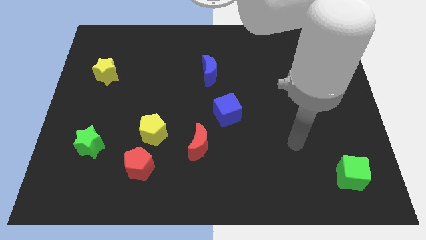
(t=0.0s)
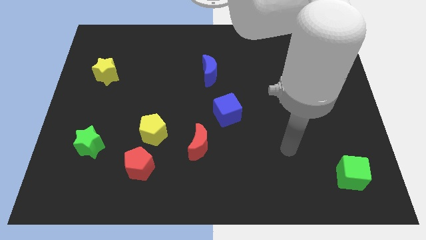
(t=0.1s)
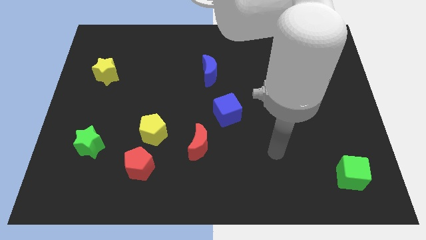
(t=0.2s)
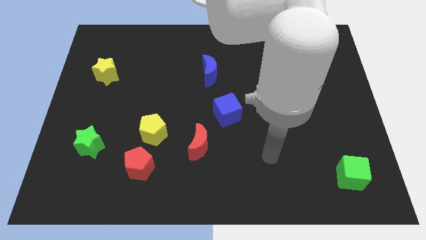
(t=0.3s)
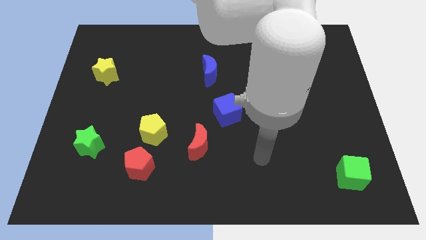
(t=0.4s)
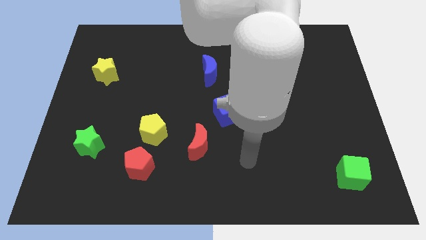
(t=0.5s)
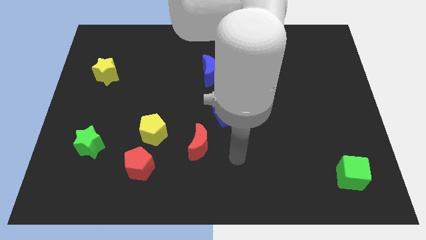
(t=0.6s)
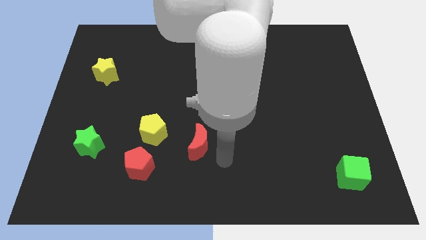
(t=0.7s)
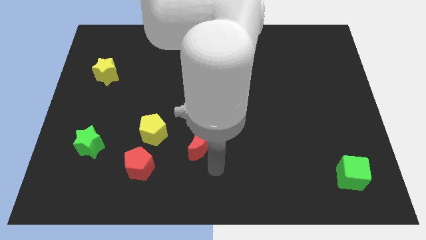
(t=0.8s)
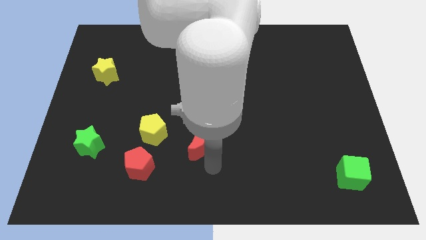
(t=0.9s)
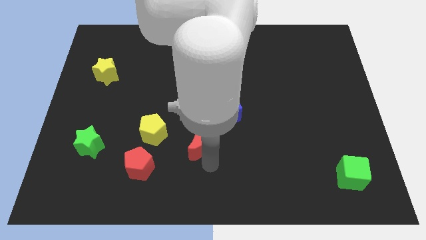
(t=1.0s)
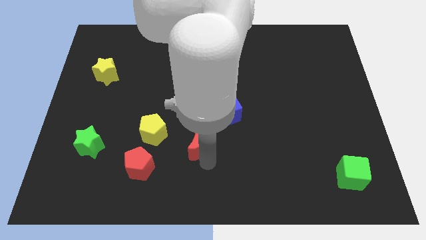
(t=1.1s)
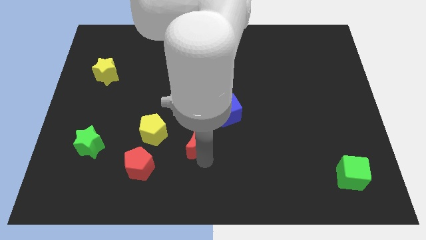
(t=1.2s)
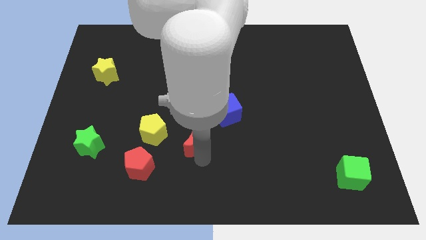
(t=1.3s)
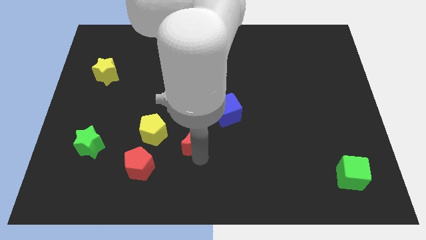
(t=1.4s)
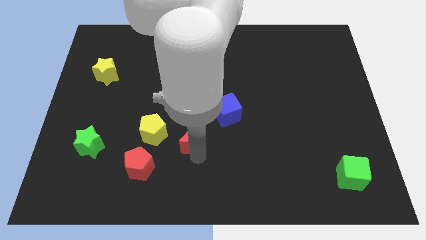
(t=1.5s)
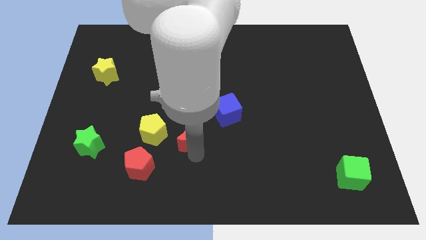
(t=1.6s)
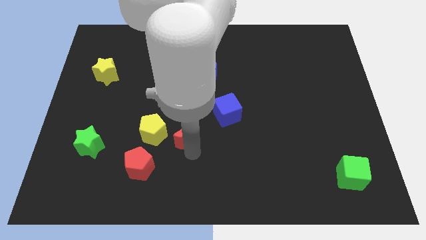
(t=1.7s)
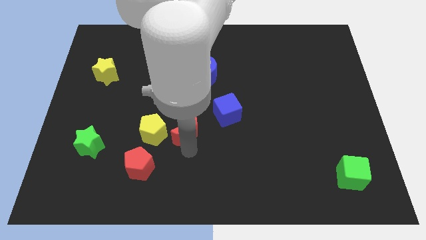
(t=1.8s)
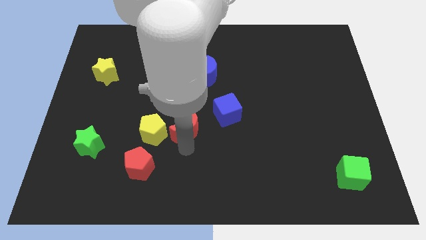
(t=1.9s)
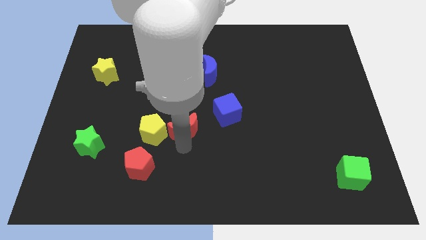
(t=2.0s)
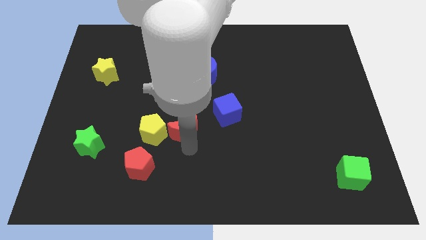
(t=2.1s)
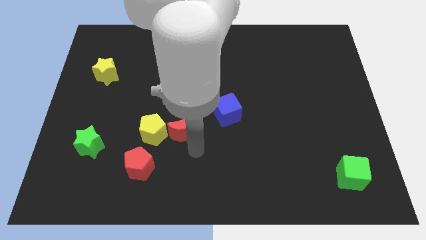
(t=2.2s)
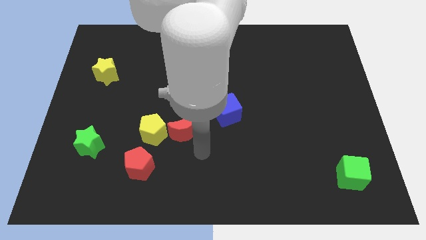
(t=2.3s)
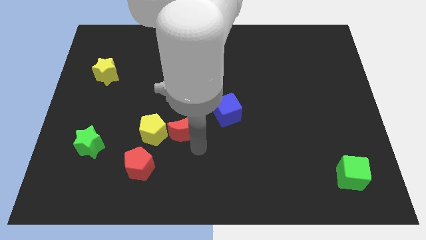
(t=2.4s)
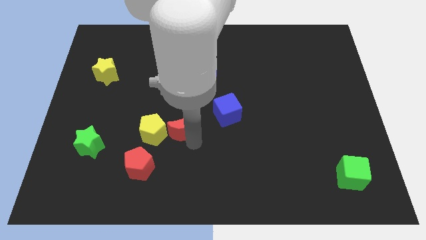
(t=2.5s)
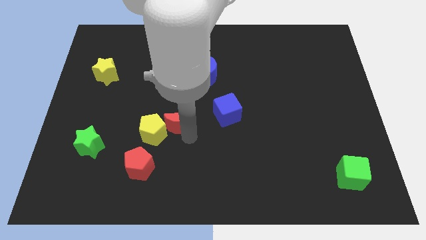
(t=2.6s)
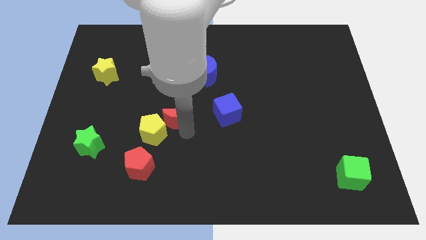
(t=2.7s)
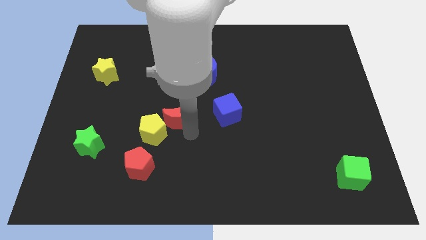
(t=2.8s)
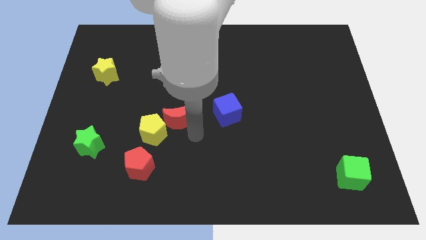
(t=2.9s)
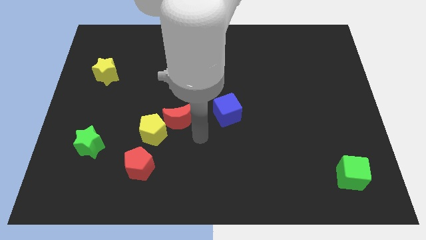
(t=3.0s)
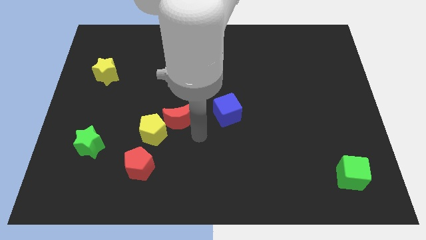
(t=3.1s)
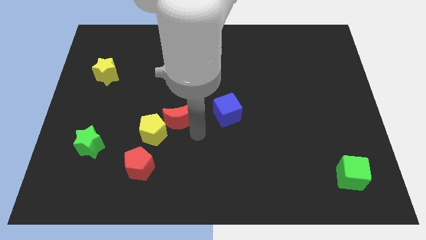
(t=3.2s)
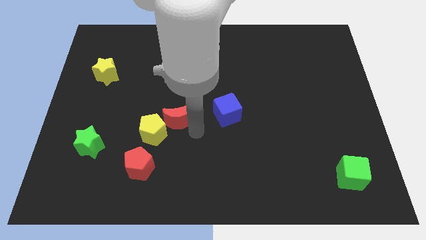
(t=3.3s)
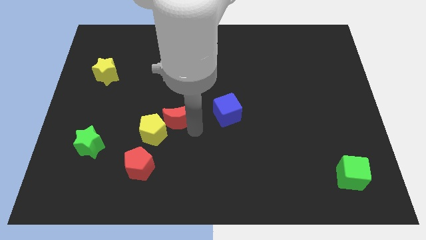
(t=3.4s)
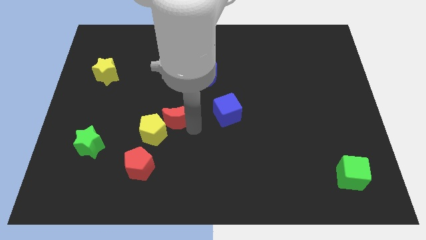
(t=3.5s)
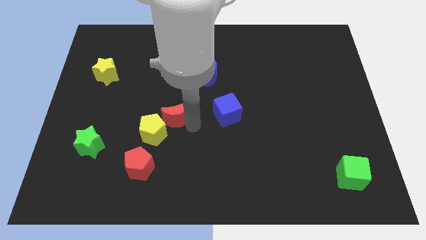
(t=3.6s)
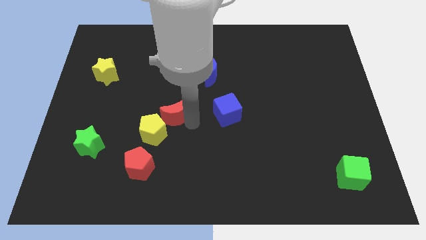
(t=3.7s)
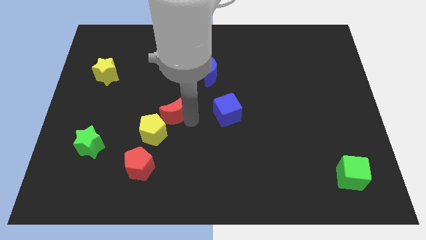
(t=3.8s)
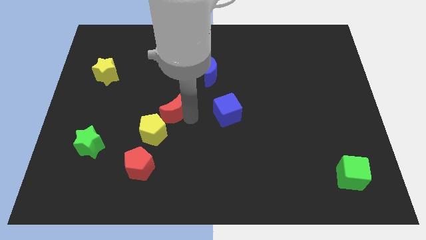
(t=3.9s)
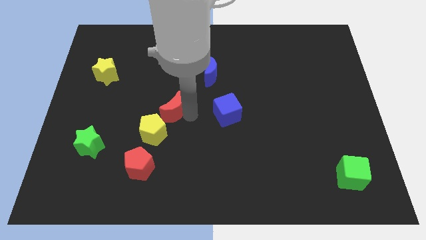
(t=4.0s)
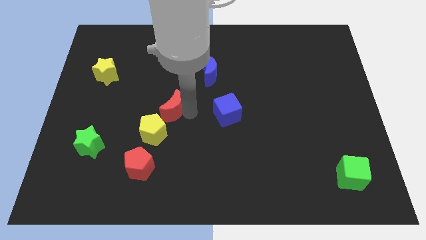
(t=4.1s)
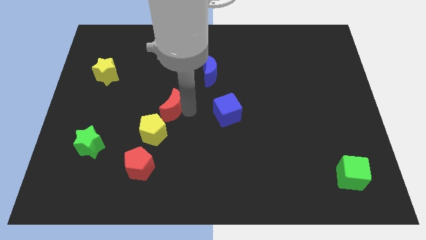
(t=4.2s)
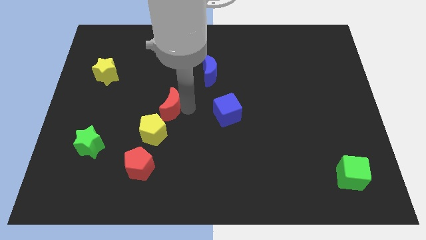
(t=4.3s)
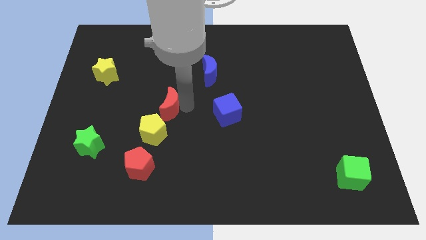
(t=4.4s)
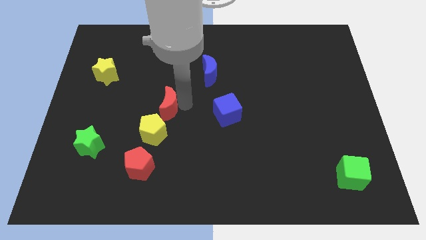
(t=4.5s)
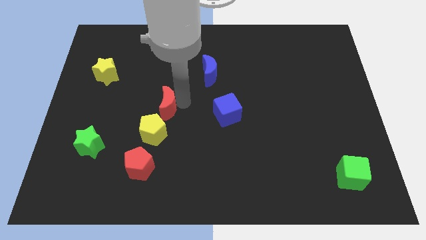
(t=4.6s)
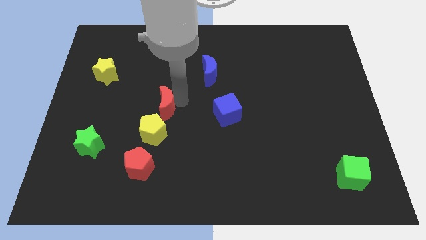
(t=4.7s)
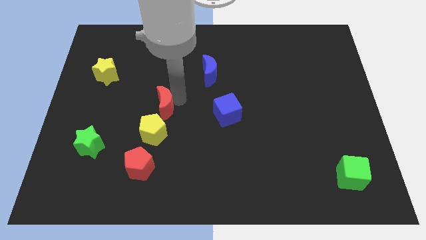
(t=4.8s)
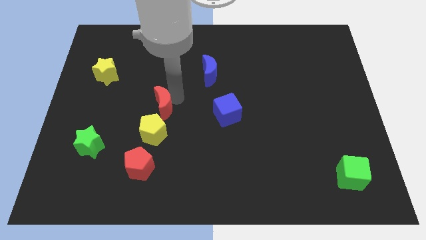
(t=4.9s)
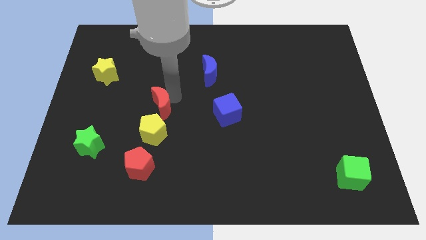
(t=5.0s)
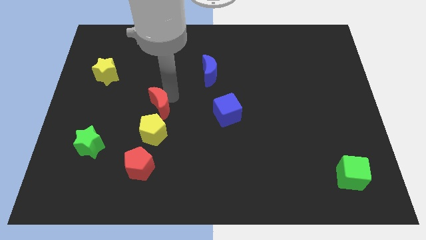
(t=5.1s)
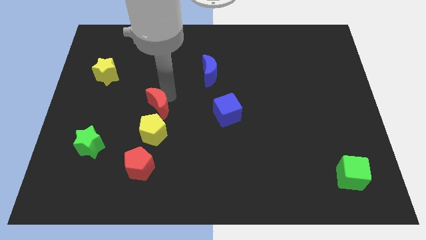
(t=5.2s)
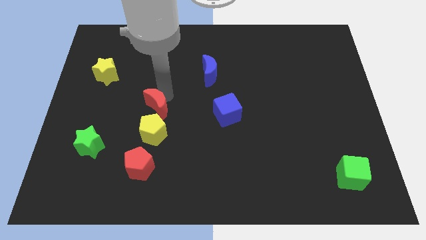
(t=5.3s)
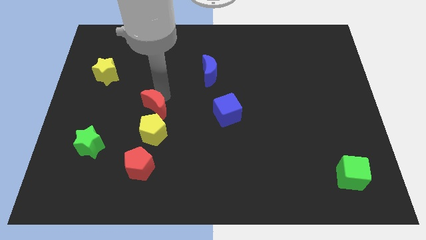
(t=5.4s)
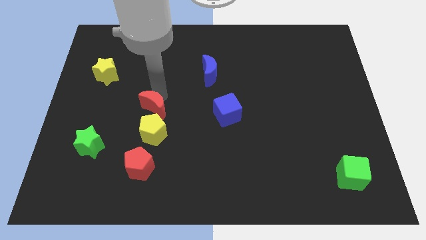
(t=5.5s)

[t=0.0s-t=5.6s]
push the red moon above the red pentagon

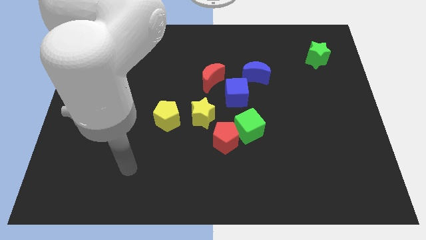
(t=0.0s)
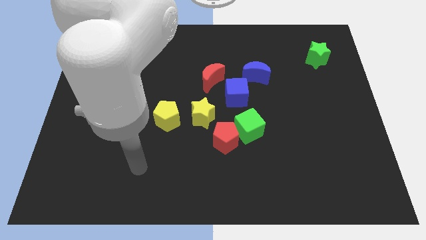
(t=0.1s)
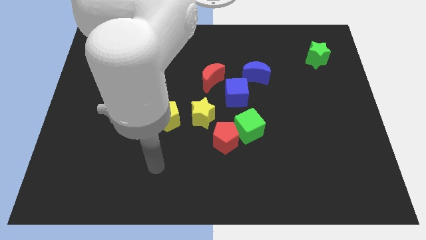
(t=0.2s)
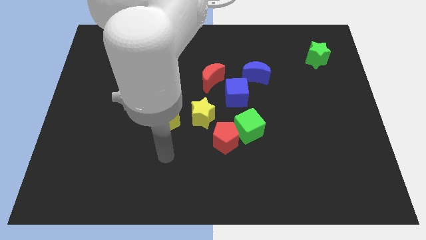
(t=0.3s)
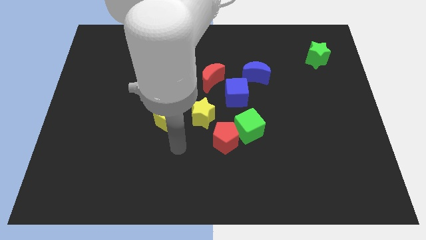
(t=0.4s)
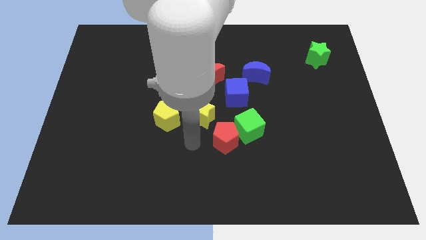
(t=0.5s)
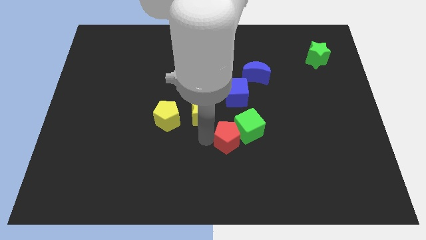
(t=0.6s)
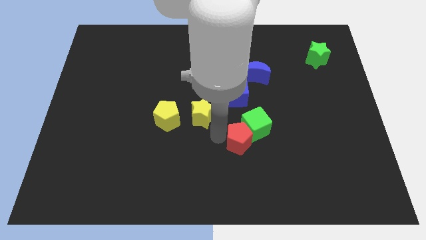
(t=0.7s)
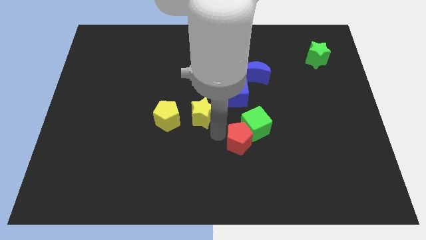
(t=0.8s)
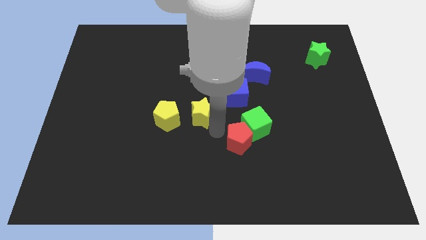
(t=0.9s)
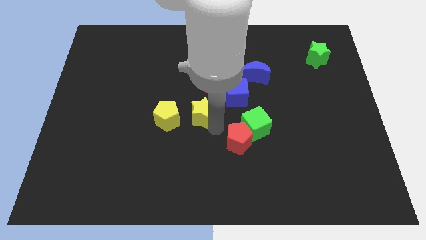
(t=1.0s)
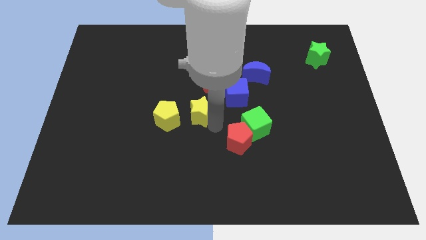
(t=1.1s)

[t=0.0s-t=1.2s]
push the yellow star diagonally up and to the right of the yellow pentagon
